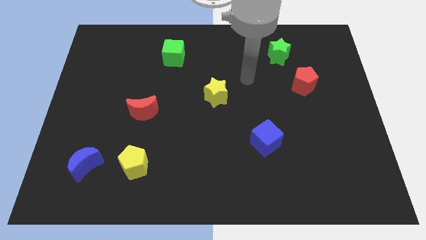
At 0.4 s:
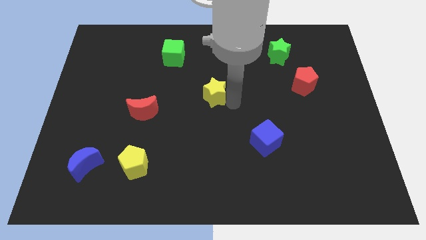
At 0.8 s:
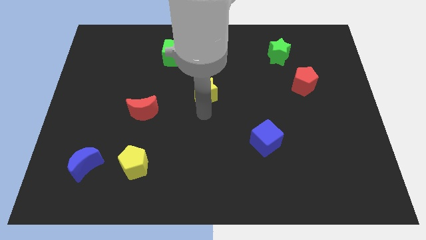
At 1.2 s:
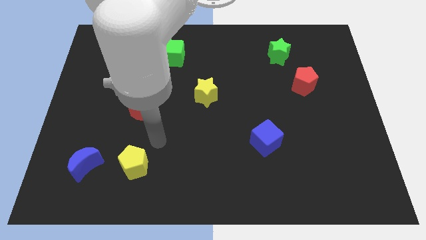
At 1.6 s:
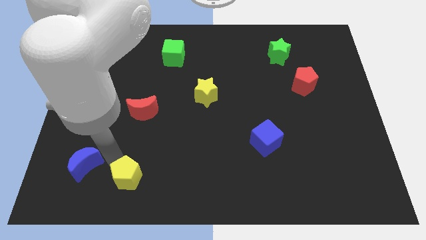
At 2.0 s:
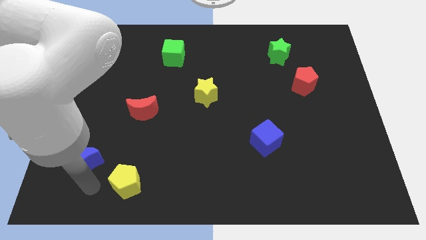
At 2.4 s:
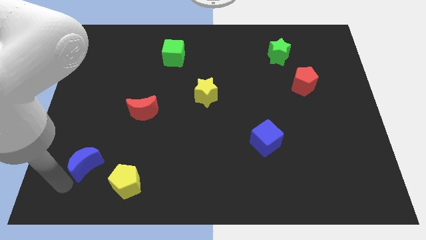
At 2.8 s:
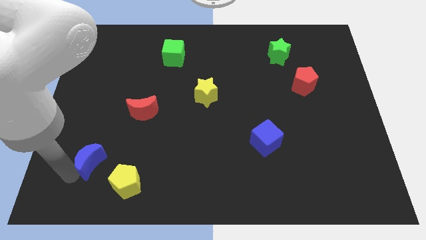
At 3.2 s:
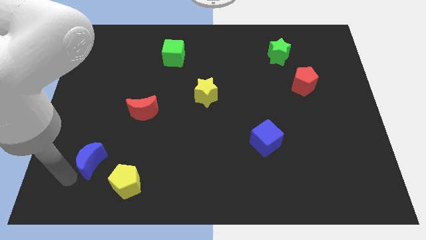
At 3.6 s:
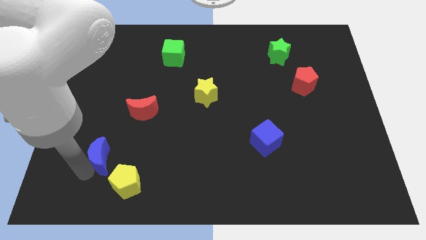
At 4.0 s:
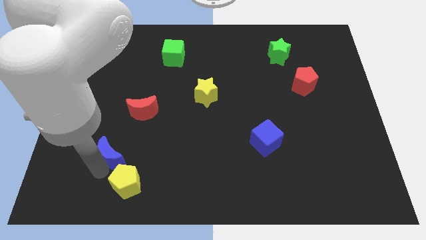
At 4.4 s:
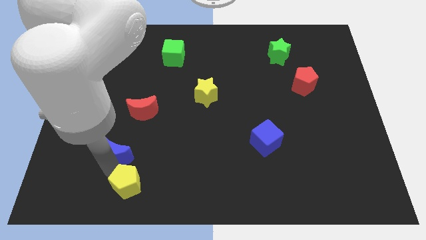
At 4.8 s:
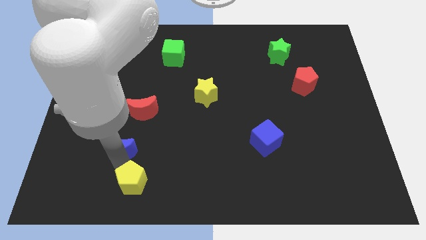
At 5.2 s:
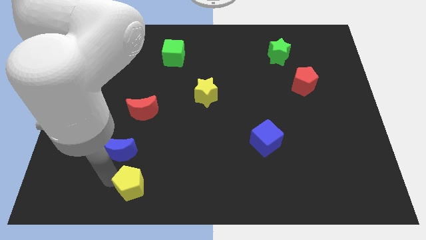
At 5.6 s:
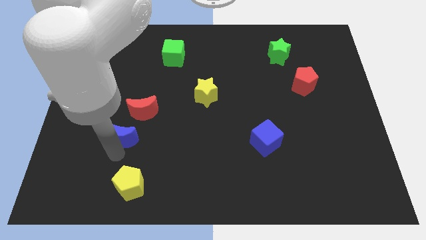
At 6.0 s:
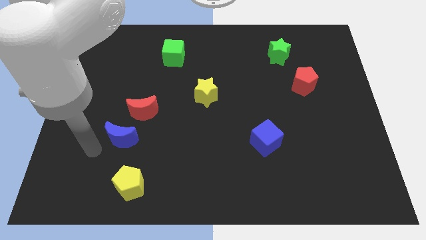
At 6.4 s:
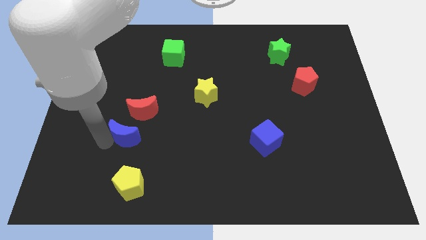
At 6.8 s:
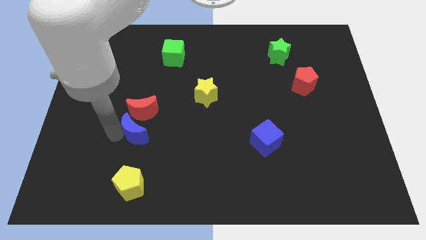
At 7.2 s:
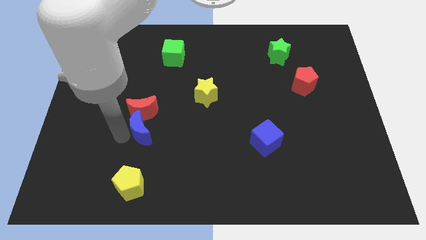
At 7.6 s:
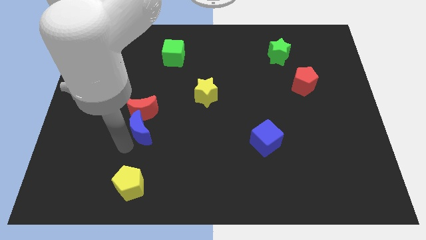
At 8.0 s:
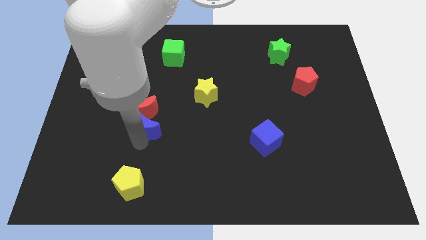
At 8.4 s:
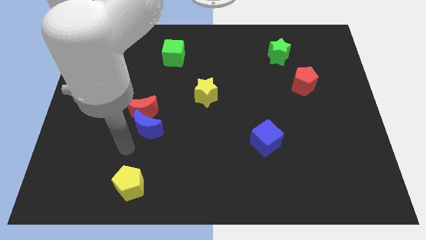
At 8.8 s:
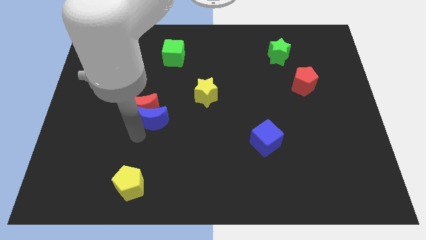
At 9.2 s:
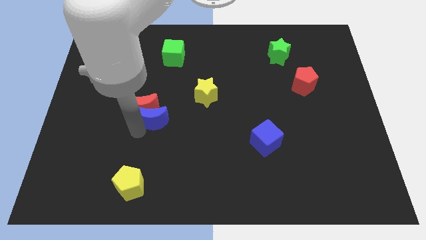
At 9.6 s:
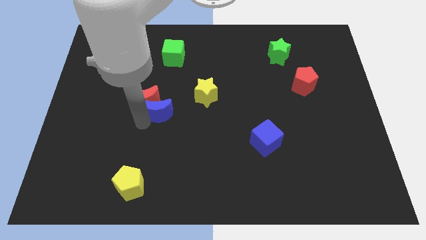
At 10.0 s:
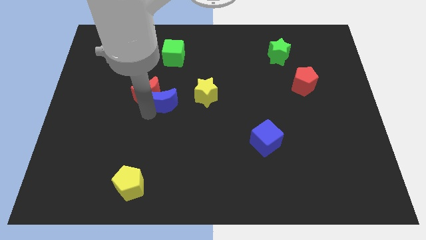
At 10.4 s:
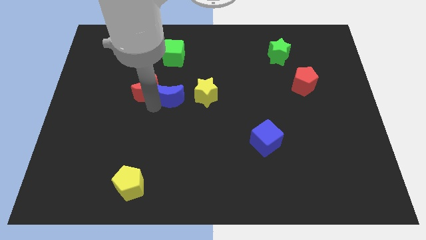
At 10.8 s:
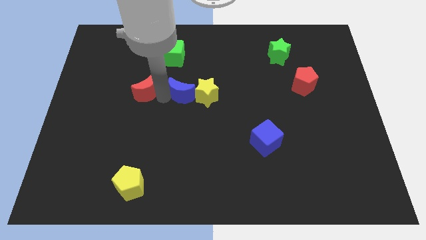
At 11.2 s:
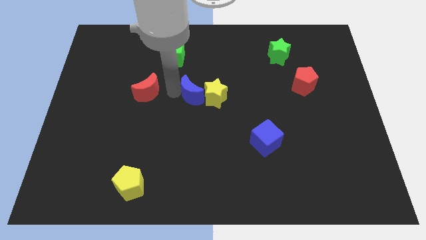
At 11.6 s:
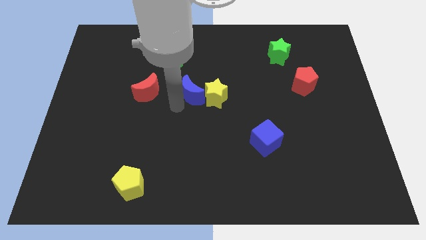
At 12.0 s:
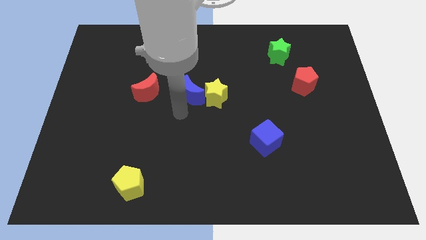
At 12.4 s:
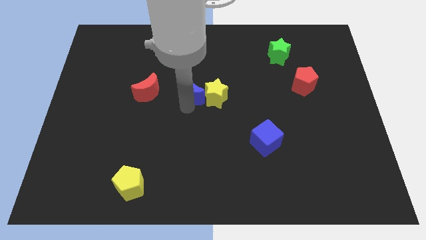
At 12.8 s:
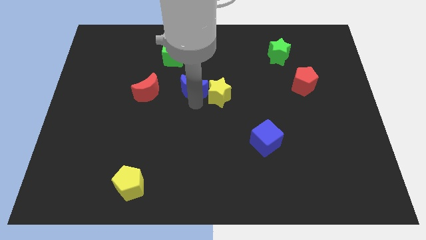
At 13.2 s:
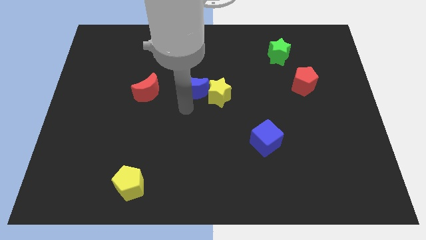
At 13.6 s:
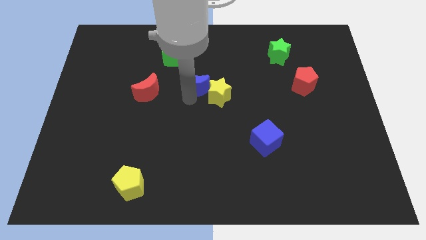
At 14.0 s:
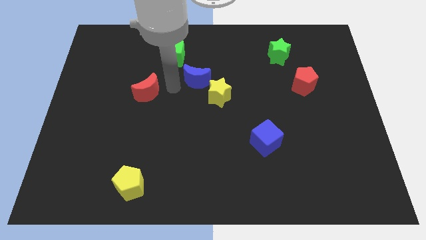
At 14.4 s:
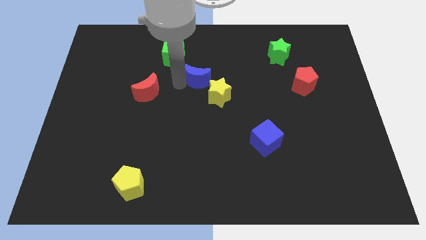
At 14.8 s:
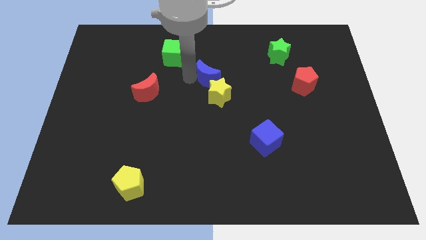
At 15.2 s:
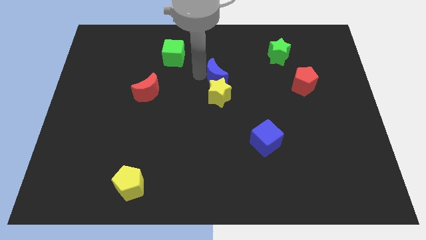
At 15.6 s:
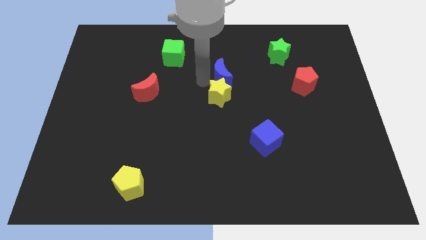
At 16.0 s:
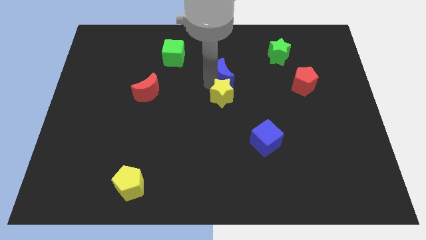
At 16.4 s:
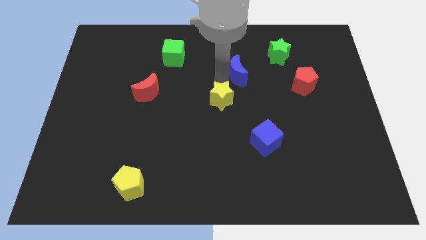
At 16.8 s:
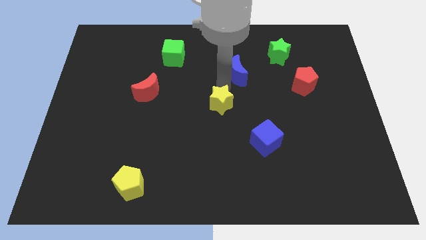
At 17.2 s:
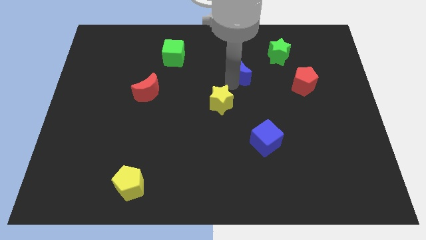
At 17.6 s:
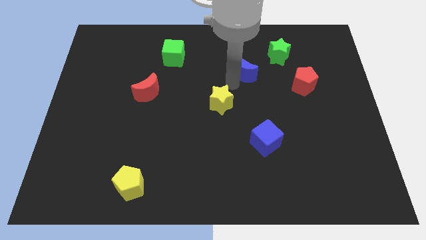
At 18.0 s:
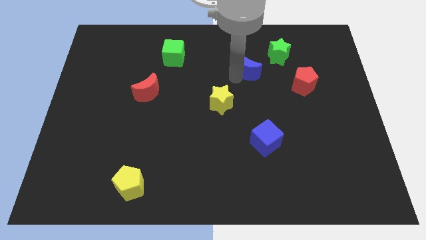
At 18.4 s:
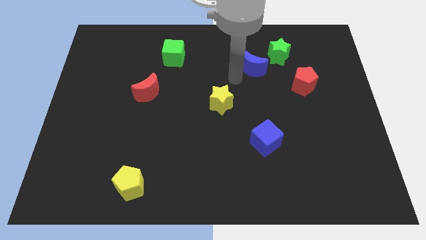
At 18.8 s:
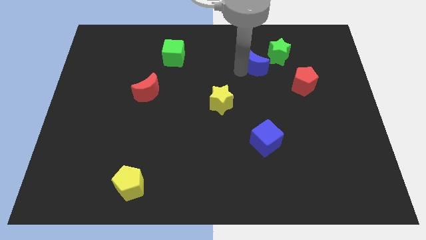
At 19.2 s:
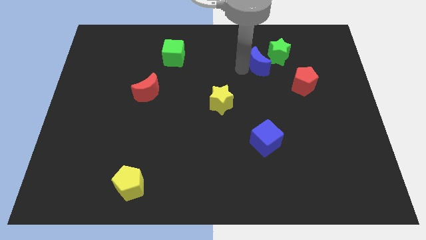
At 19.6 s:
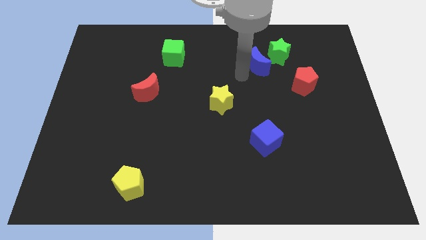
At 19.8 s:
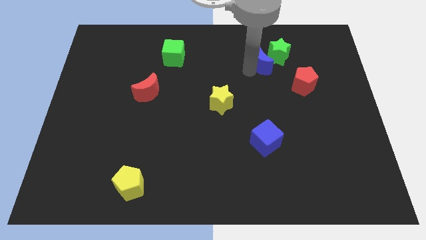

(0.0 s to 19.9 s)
move the blue moon close to the green star

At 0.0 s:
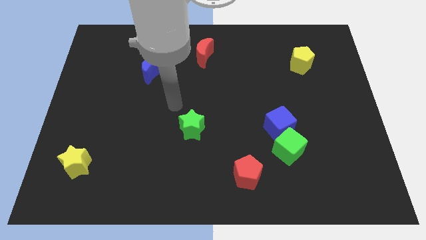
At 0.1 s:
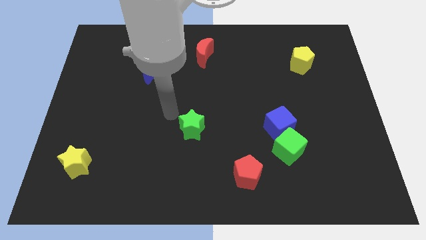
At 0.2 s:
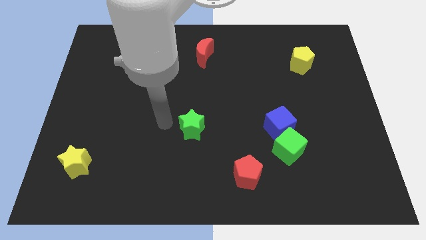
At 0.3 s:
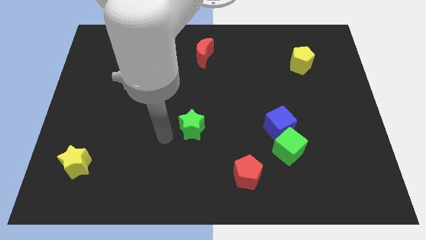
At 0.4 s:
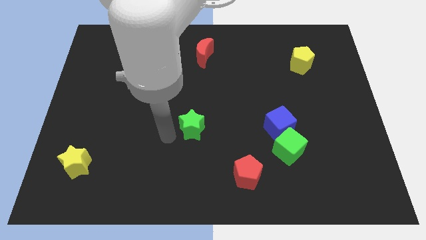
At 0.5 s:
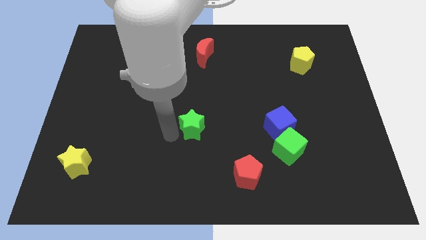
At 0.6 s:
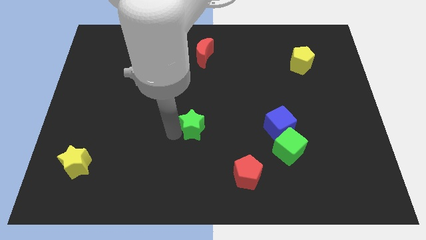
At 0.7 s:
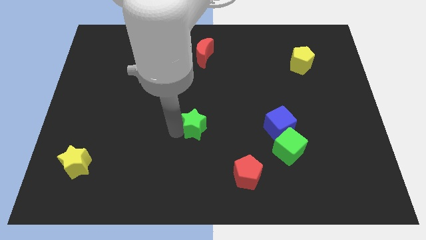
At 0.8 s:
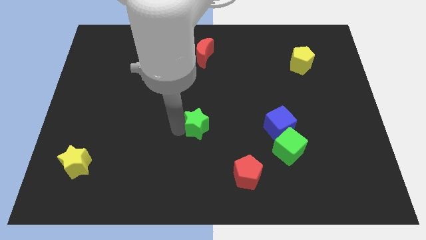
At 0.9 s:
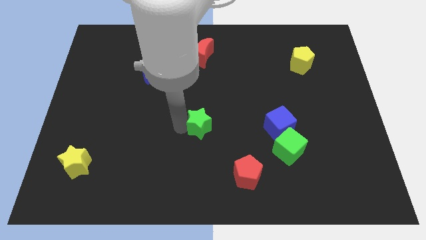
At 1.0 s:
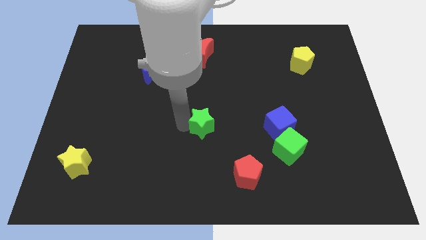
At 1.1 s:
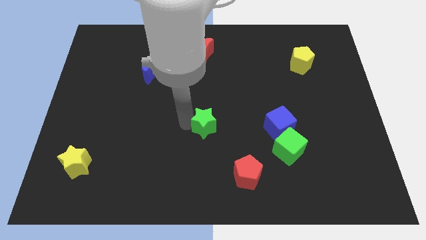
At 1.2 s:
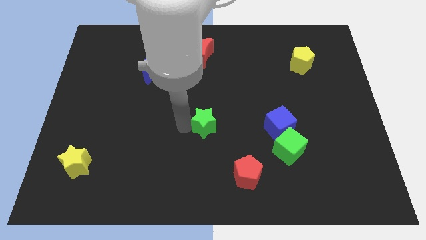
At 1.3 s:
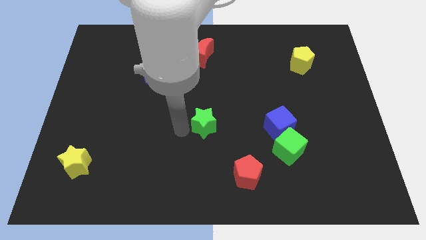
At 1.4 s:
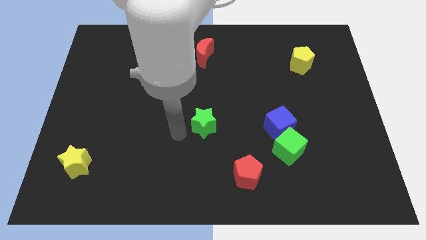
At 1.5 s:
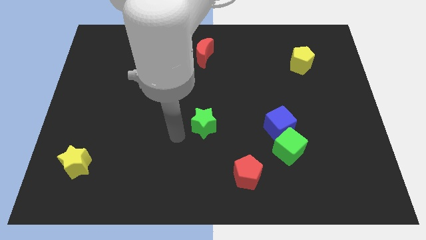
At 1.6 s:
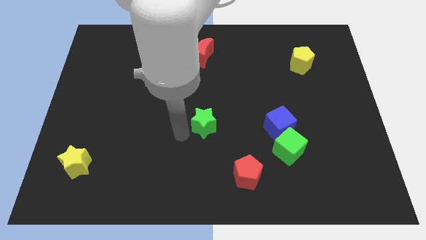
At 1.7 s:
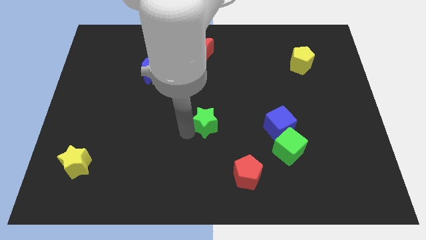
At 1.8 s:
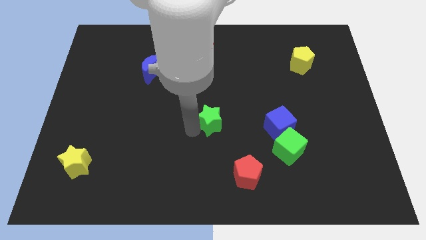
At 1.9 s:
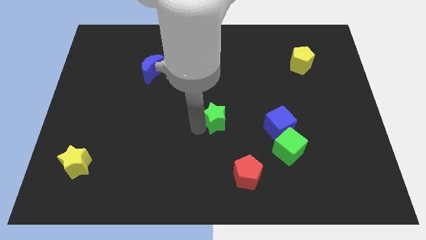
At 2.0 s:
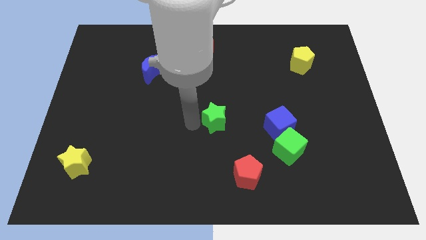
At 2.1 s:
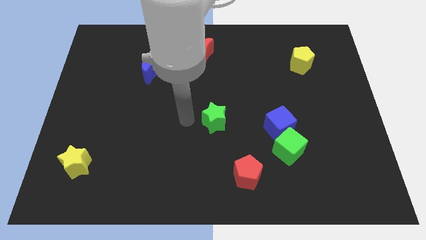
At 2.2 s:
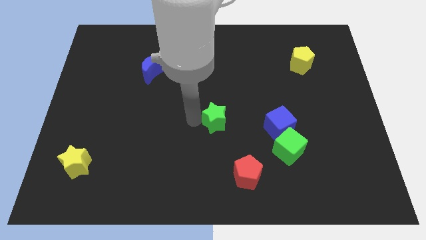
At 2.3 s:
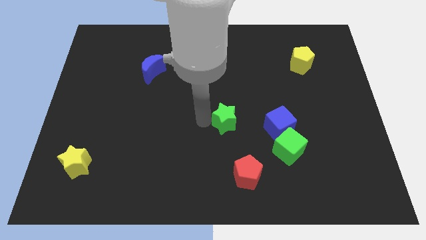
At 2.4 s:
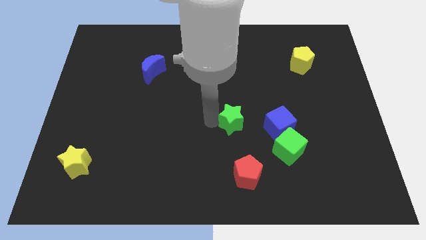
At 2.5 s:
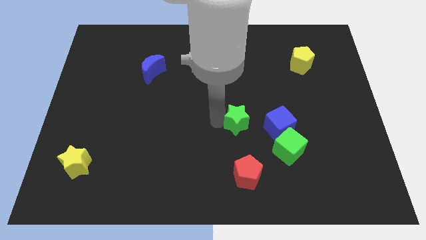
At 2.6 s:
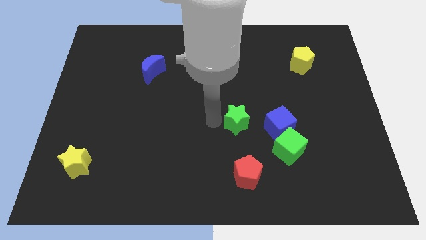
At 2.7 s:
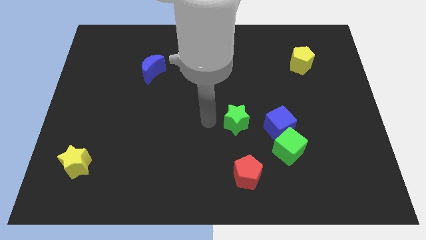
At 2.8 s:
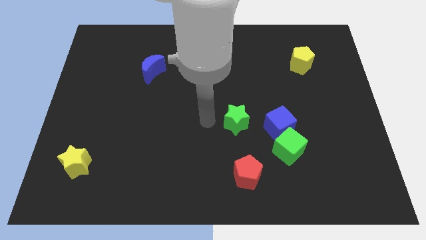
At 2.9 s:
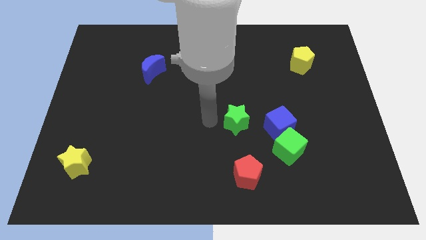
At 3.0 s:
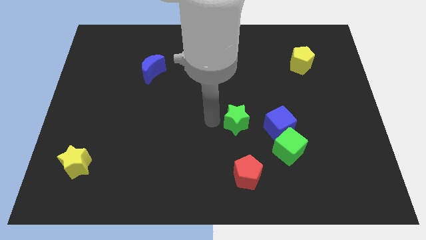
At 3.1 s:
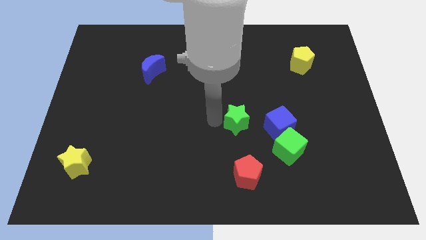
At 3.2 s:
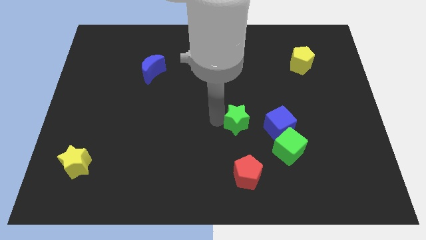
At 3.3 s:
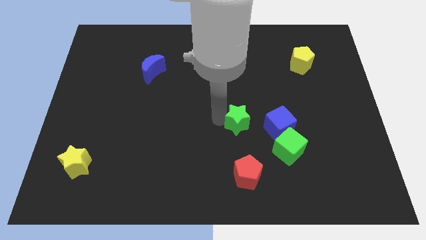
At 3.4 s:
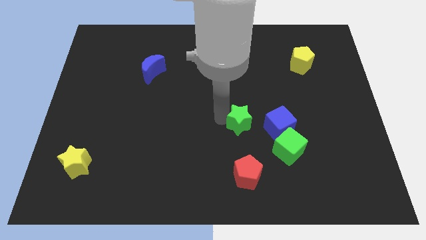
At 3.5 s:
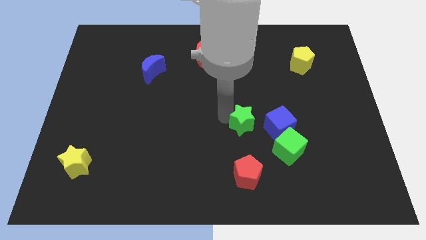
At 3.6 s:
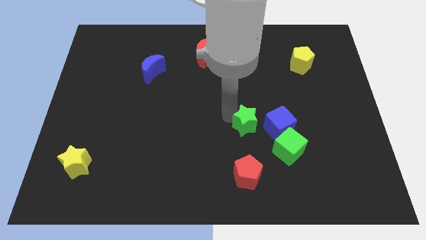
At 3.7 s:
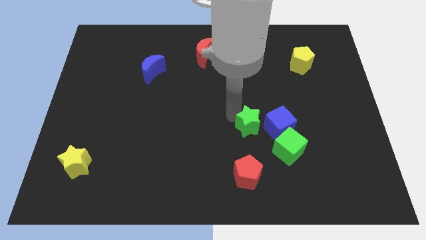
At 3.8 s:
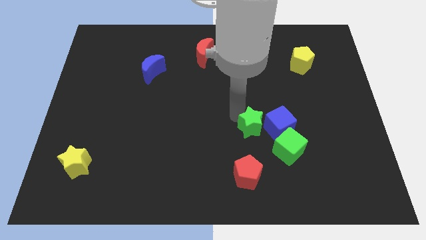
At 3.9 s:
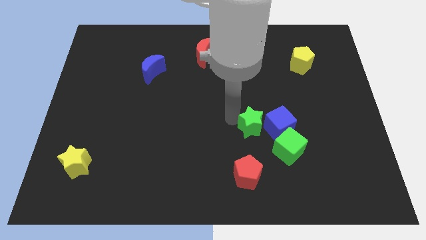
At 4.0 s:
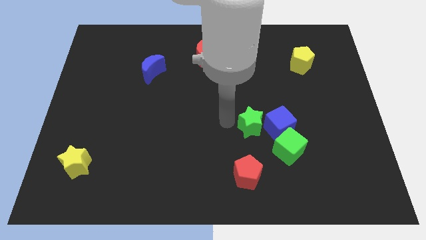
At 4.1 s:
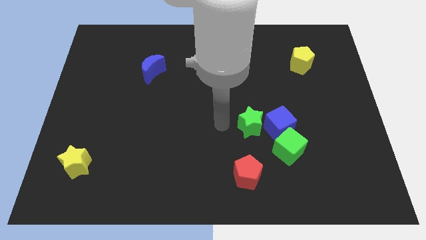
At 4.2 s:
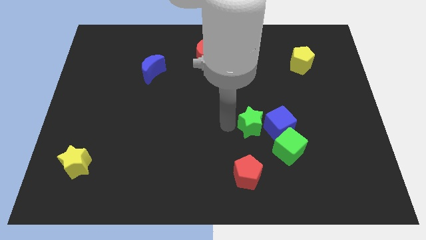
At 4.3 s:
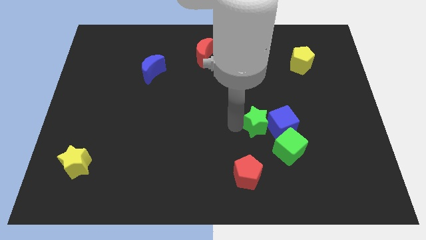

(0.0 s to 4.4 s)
move the green star close to the blue cube
